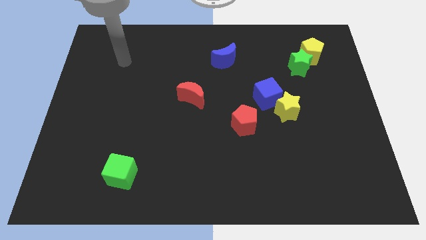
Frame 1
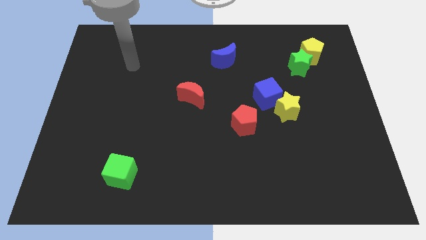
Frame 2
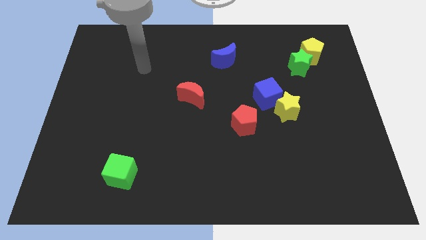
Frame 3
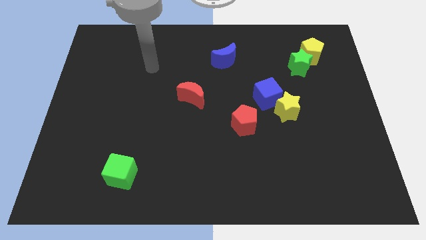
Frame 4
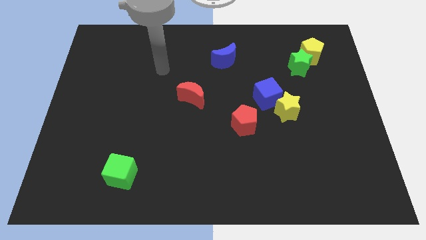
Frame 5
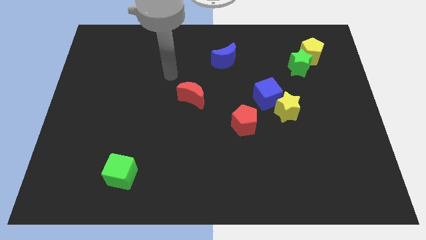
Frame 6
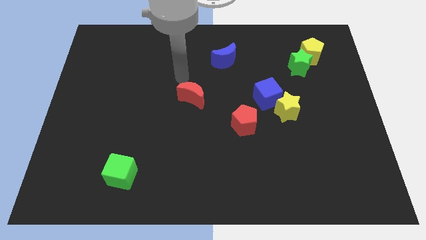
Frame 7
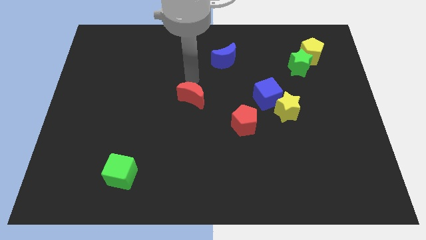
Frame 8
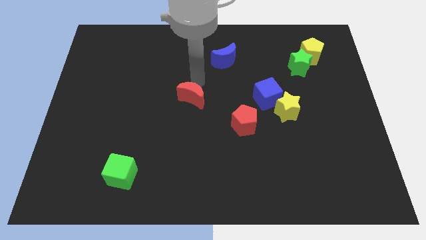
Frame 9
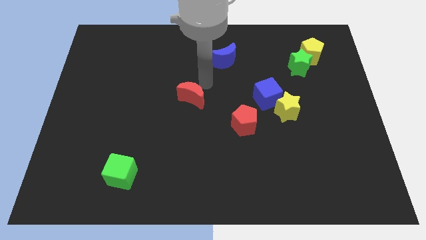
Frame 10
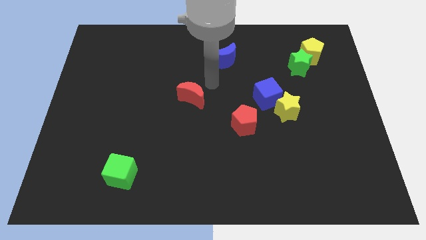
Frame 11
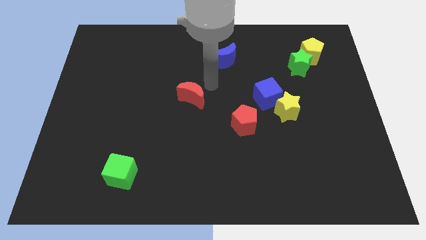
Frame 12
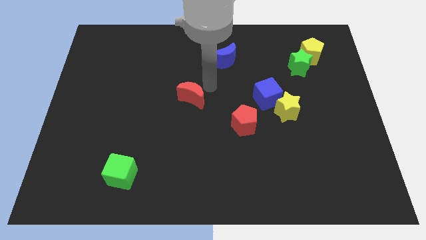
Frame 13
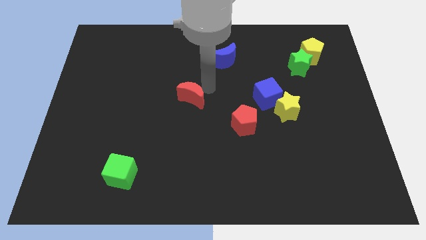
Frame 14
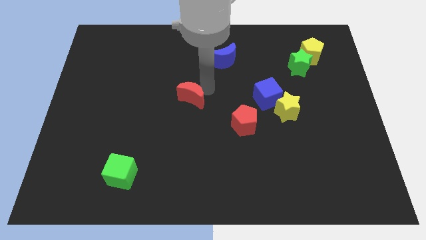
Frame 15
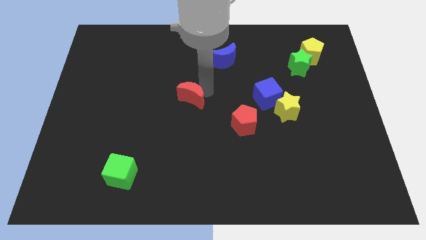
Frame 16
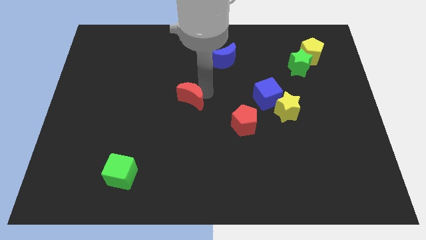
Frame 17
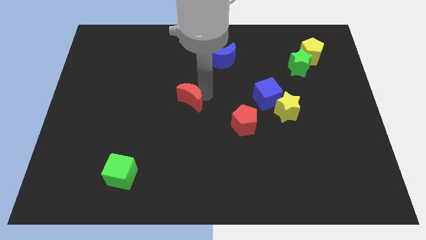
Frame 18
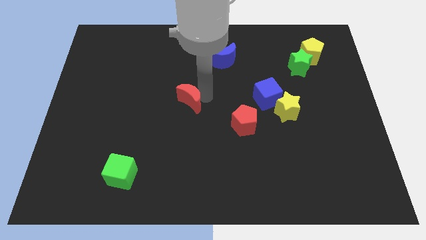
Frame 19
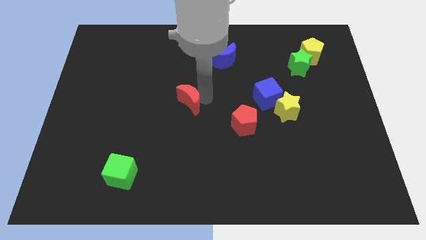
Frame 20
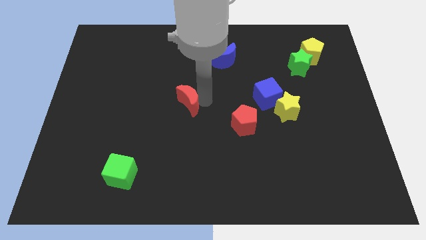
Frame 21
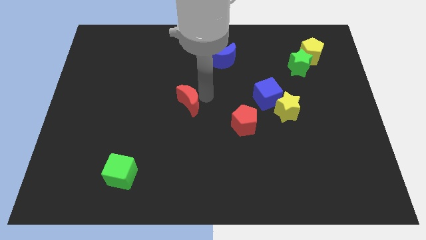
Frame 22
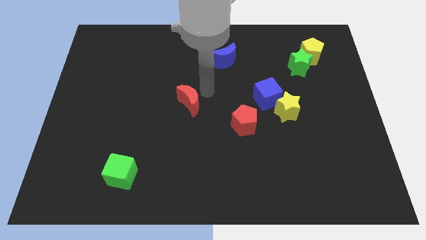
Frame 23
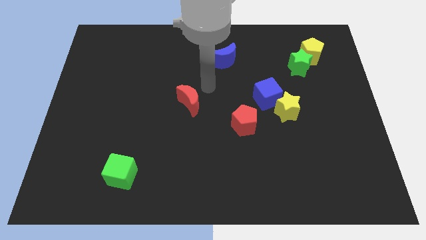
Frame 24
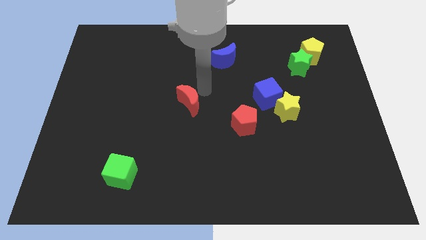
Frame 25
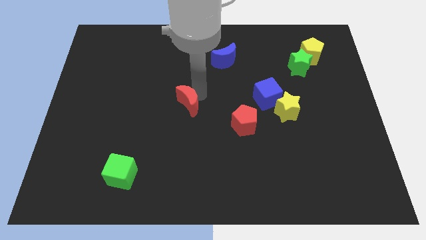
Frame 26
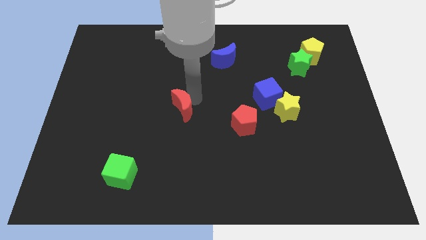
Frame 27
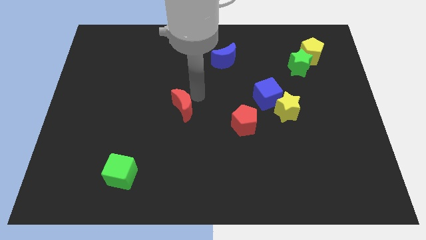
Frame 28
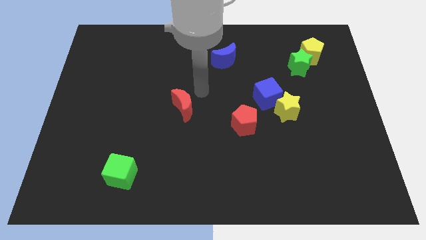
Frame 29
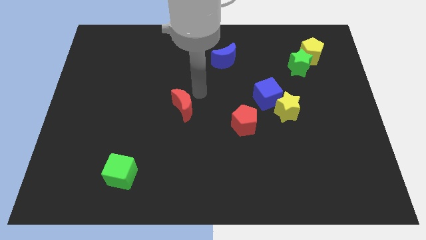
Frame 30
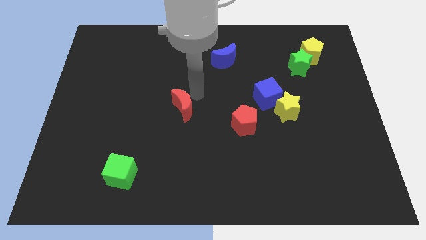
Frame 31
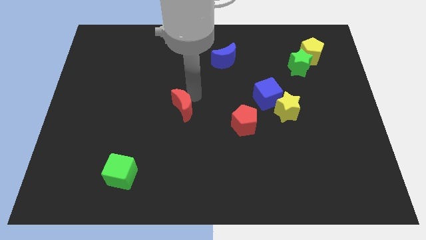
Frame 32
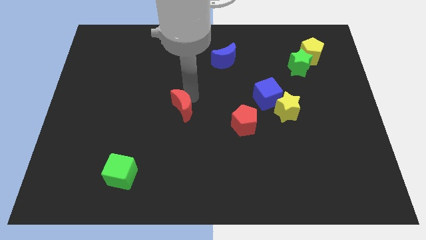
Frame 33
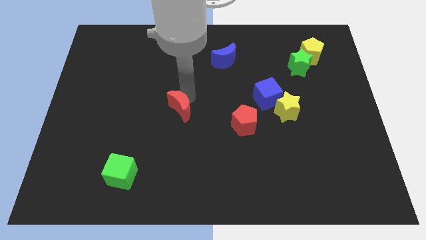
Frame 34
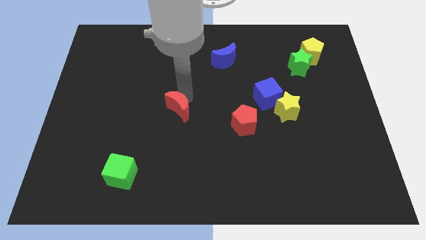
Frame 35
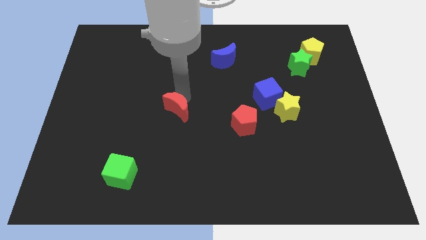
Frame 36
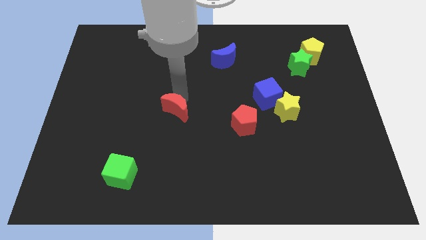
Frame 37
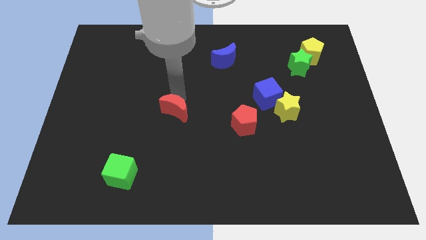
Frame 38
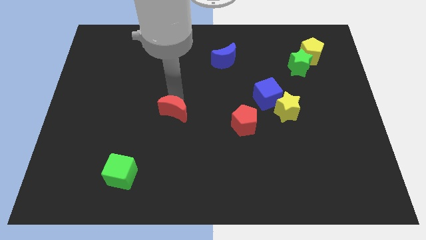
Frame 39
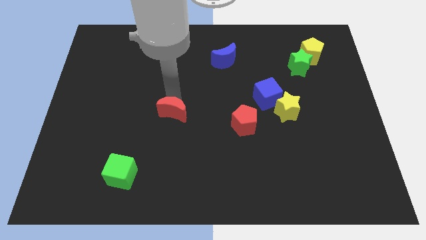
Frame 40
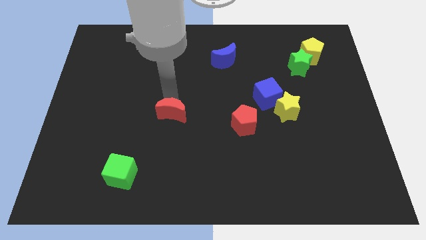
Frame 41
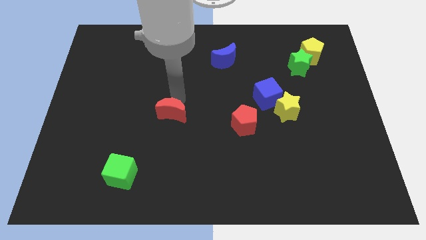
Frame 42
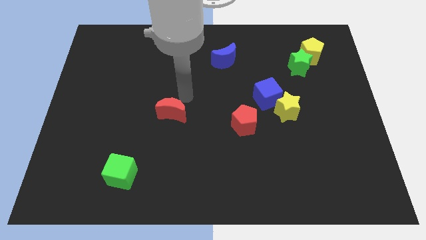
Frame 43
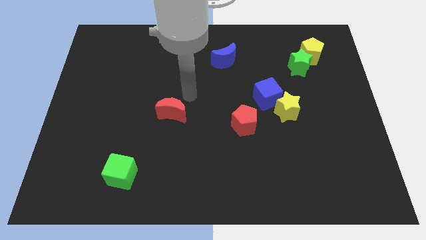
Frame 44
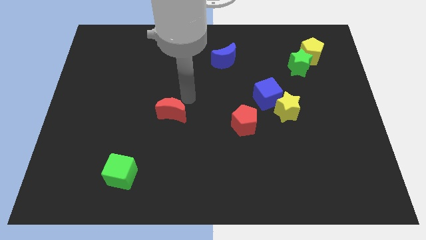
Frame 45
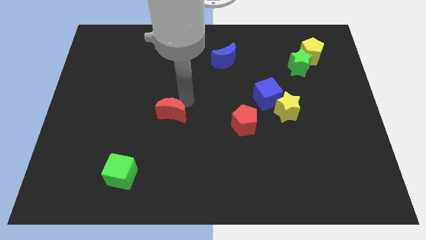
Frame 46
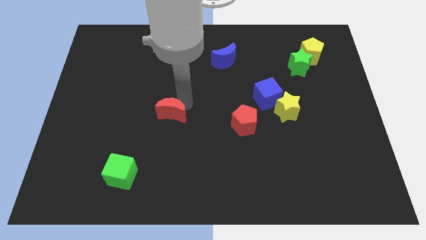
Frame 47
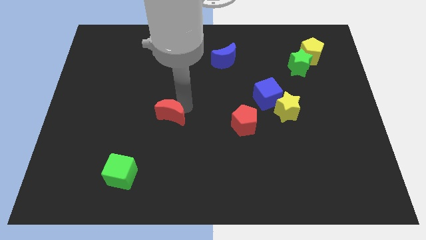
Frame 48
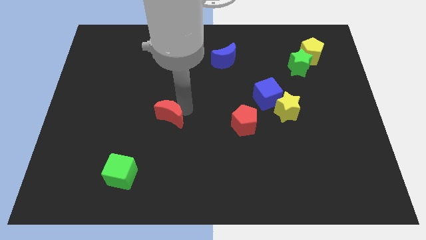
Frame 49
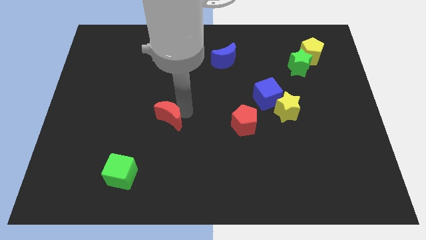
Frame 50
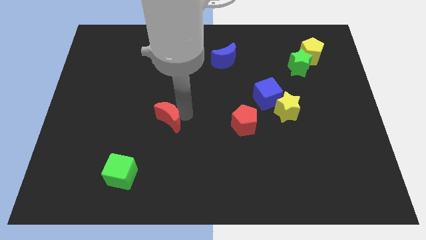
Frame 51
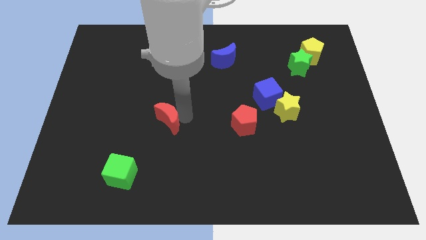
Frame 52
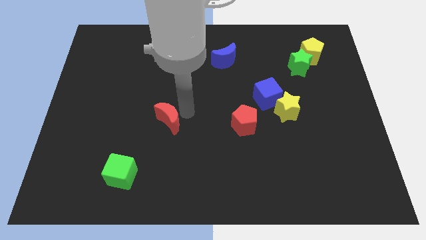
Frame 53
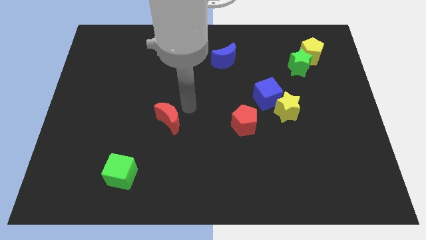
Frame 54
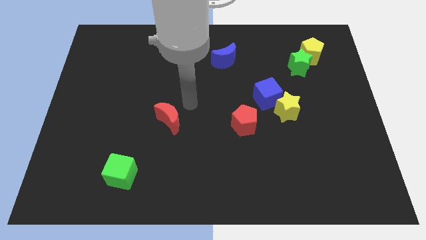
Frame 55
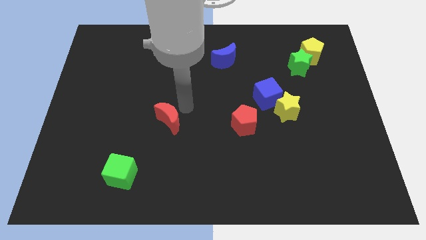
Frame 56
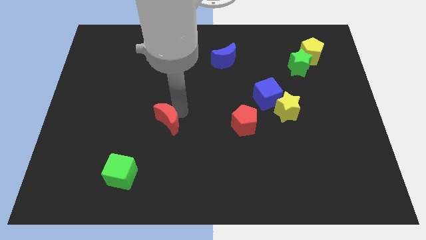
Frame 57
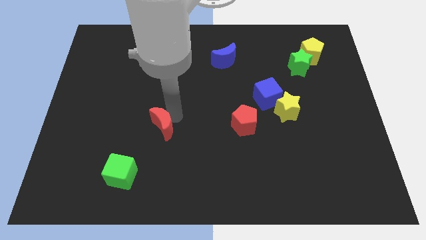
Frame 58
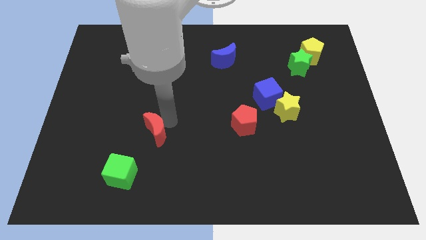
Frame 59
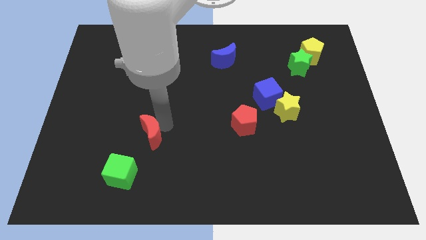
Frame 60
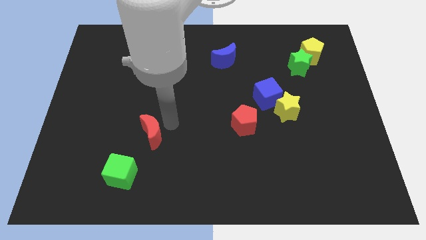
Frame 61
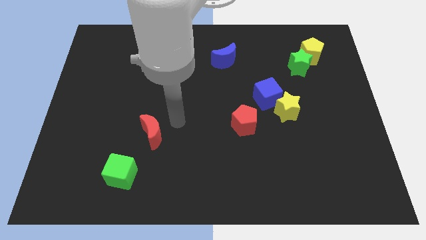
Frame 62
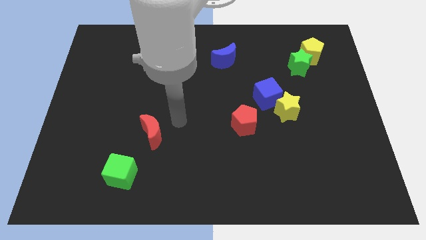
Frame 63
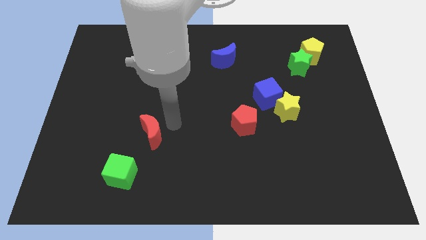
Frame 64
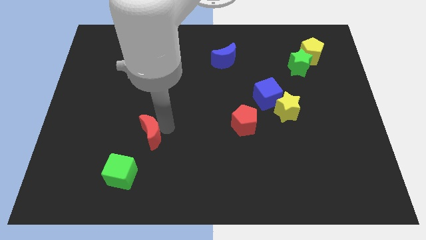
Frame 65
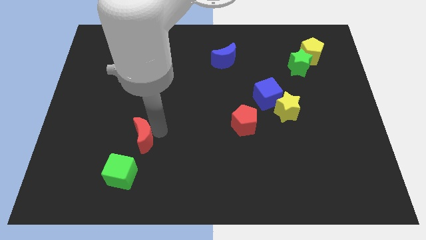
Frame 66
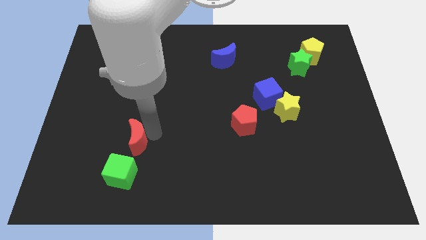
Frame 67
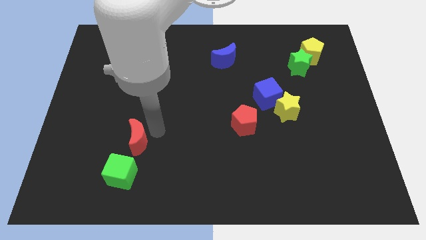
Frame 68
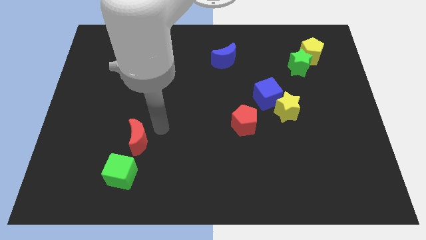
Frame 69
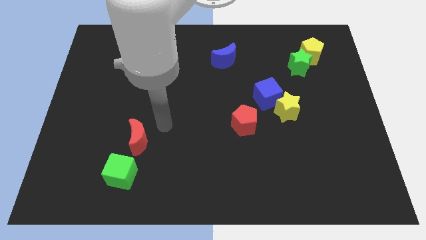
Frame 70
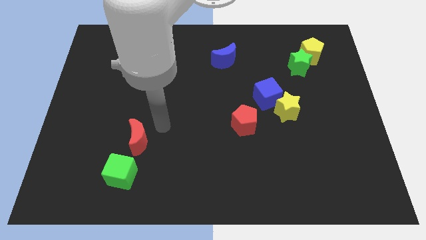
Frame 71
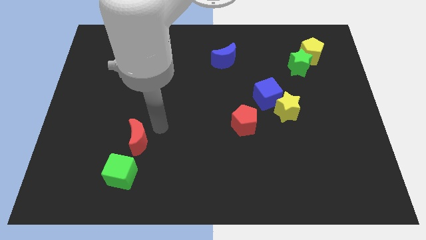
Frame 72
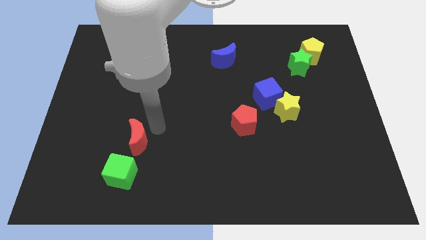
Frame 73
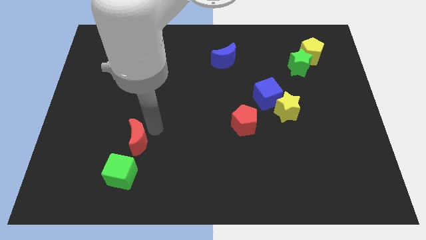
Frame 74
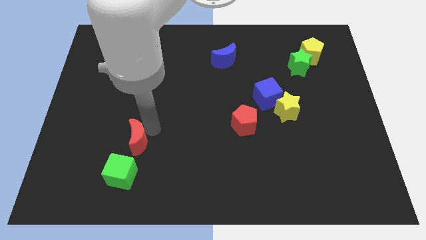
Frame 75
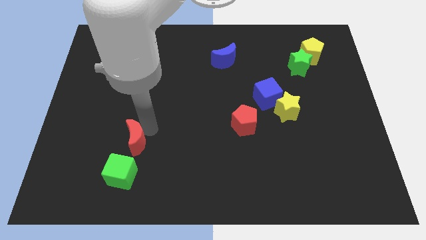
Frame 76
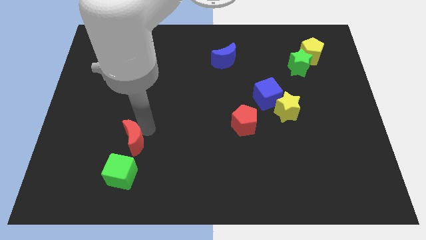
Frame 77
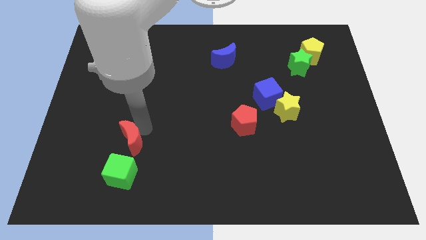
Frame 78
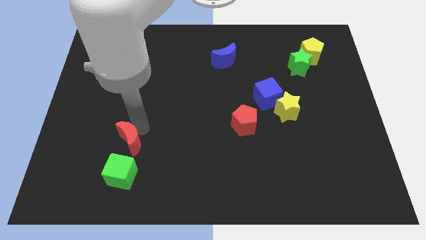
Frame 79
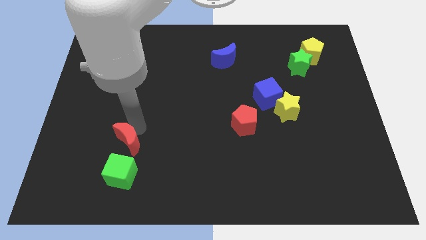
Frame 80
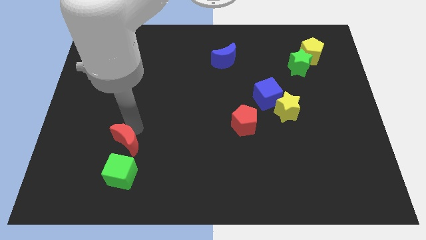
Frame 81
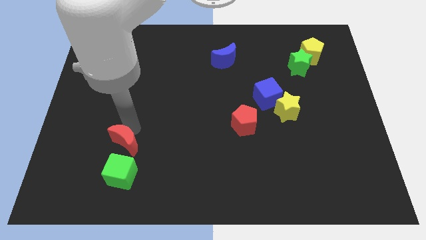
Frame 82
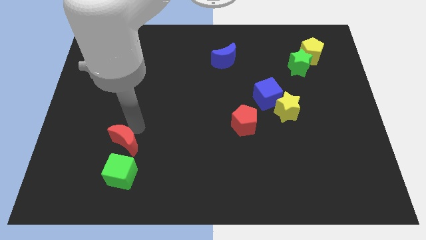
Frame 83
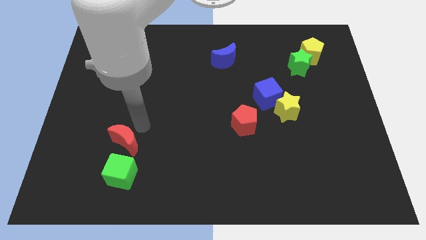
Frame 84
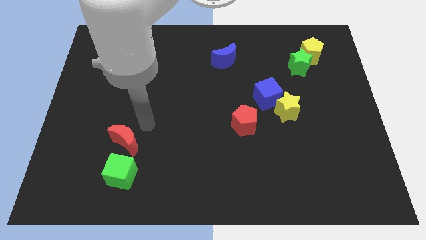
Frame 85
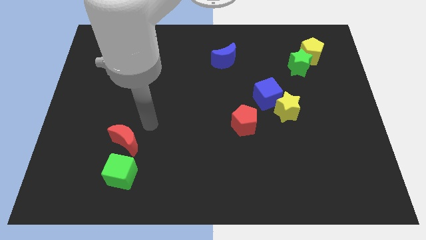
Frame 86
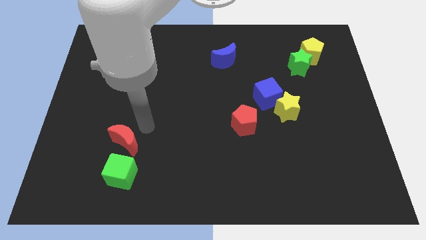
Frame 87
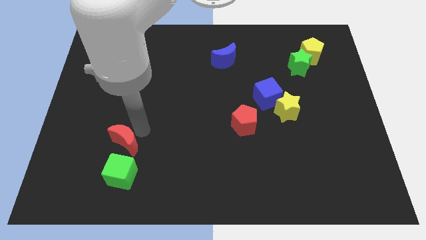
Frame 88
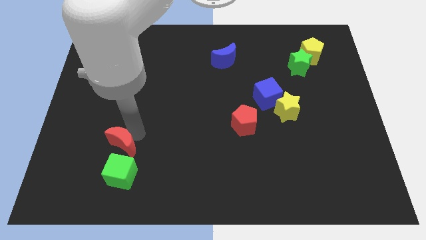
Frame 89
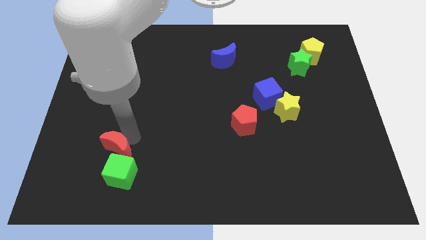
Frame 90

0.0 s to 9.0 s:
slide the red moon downwards and to the left
